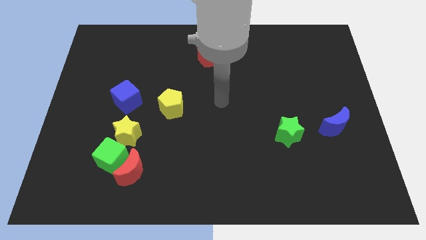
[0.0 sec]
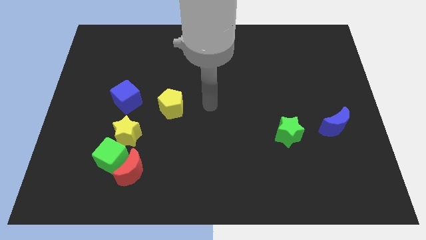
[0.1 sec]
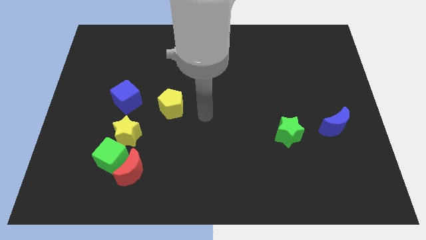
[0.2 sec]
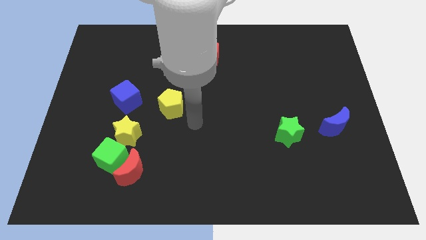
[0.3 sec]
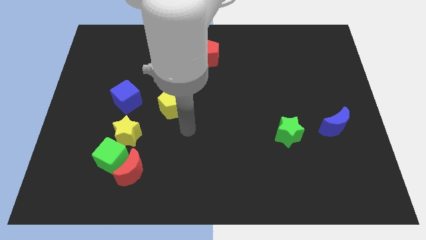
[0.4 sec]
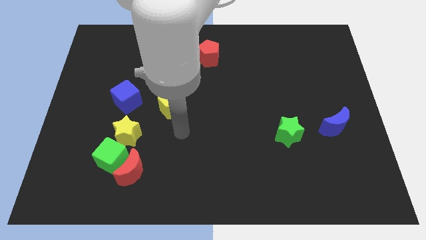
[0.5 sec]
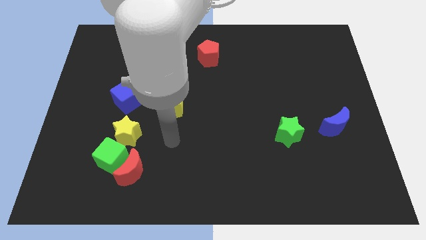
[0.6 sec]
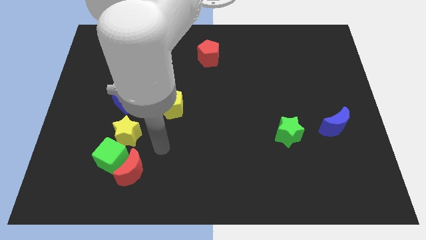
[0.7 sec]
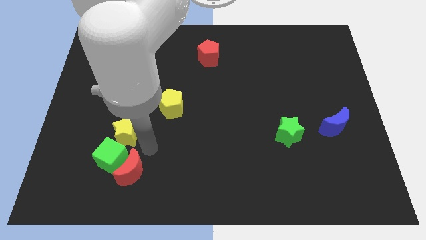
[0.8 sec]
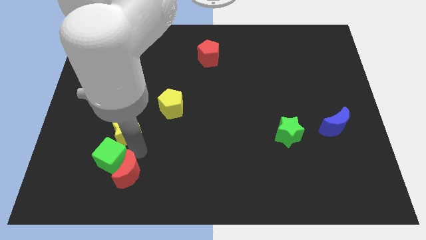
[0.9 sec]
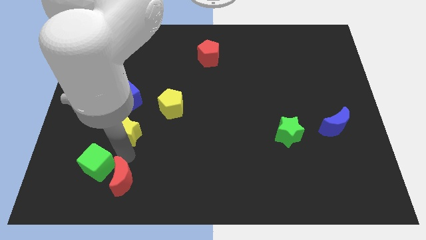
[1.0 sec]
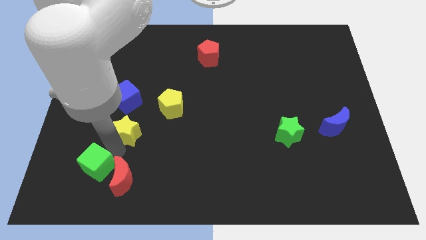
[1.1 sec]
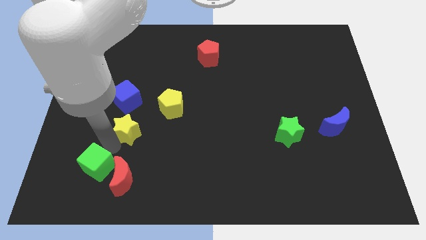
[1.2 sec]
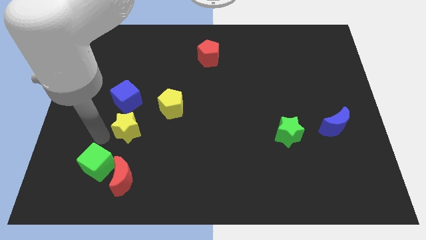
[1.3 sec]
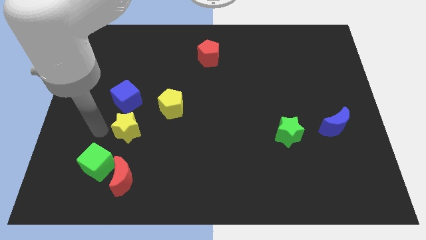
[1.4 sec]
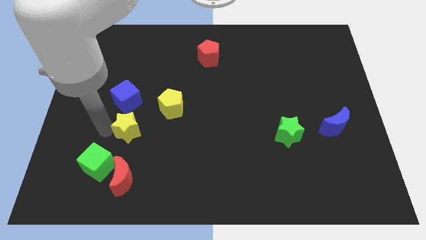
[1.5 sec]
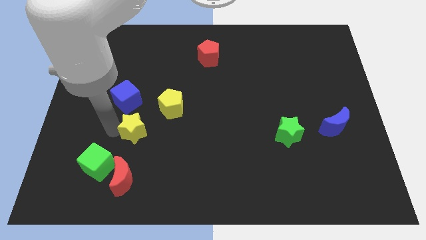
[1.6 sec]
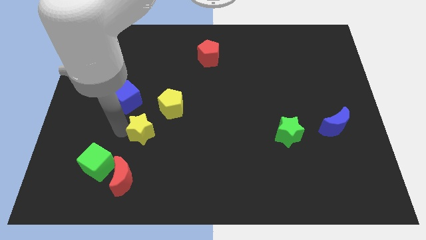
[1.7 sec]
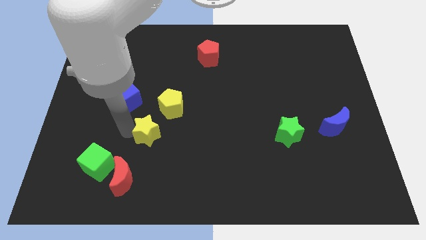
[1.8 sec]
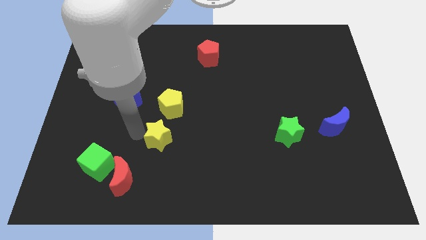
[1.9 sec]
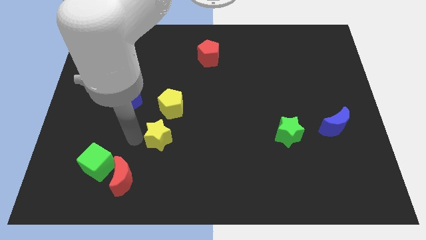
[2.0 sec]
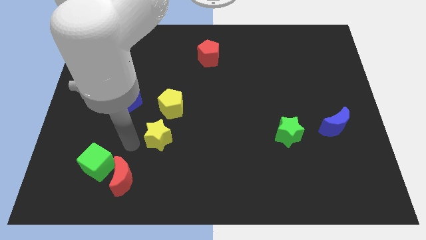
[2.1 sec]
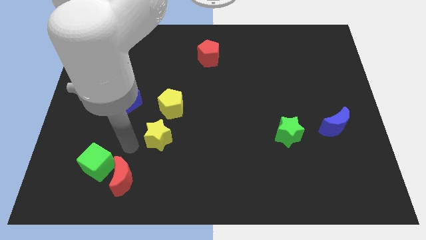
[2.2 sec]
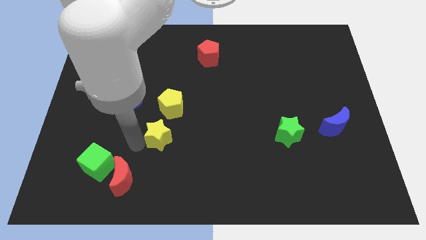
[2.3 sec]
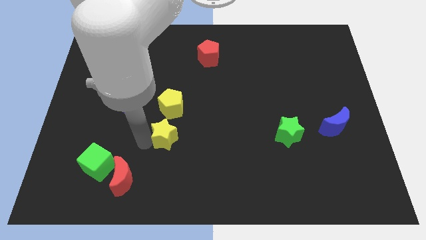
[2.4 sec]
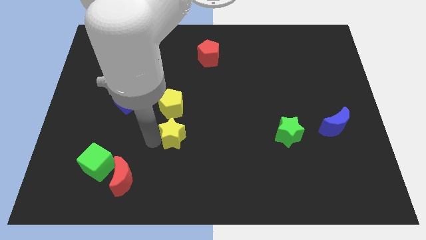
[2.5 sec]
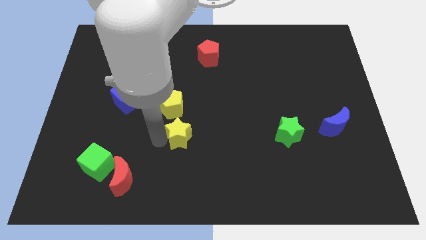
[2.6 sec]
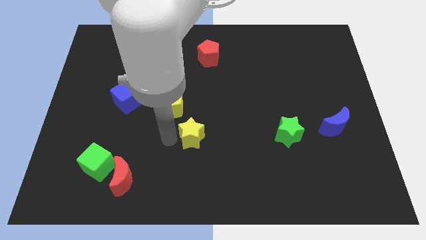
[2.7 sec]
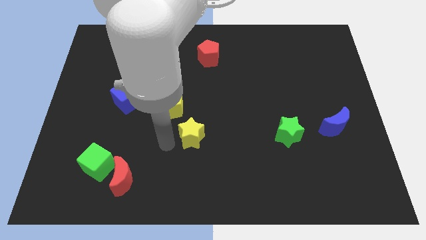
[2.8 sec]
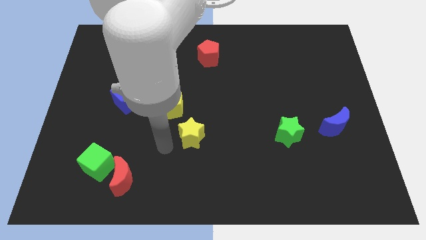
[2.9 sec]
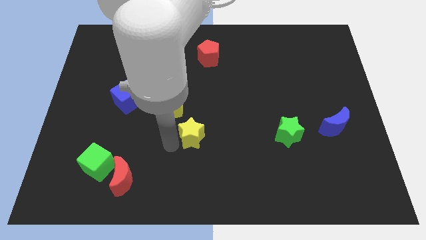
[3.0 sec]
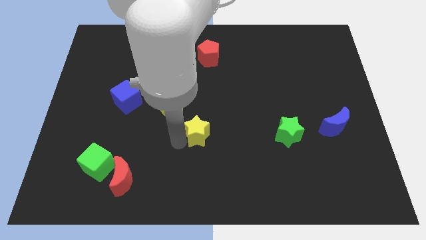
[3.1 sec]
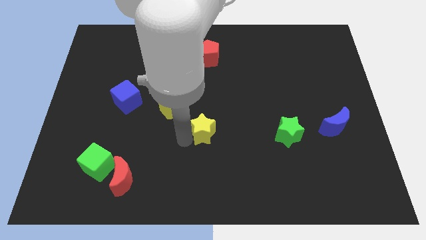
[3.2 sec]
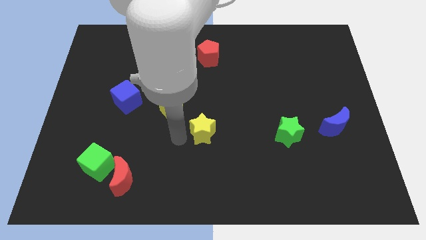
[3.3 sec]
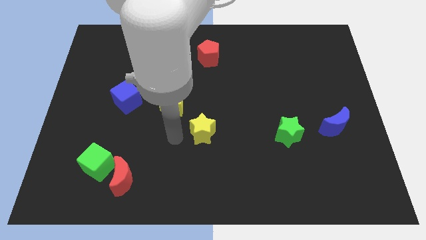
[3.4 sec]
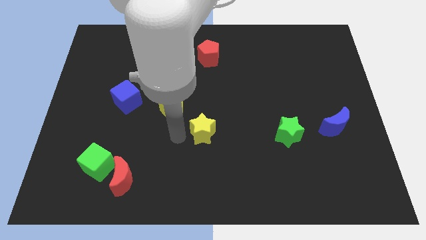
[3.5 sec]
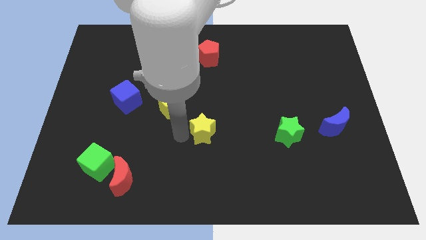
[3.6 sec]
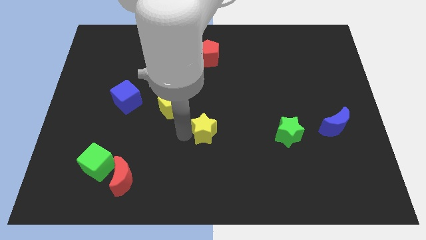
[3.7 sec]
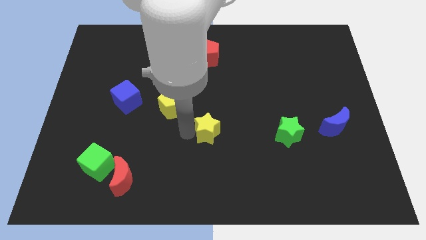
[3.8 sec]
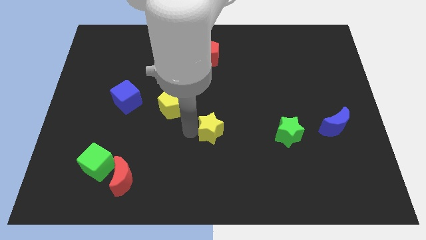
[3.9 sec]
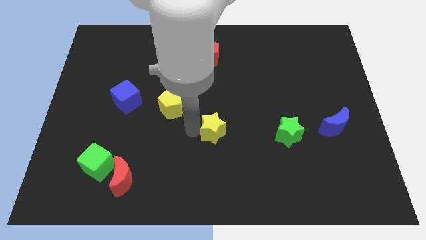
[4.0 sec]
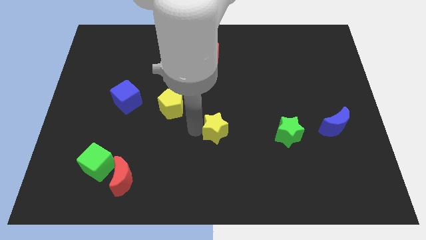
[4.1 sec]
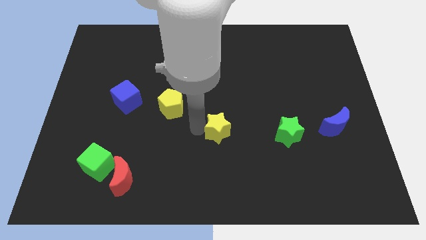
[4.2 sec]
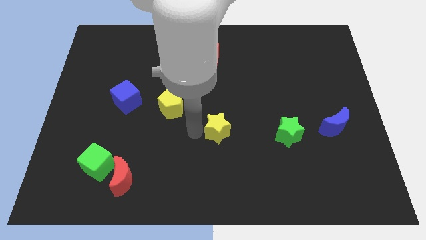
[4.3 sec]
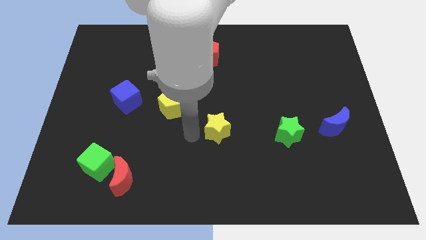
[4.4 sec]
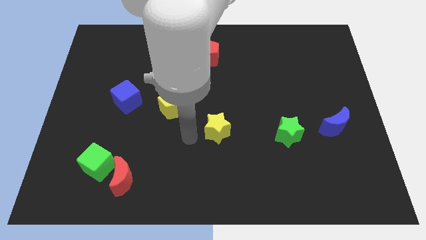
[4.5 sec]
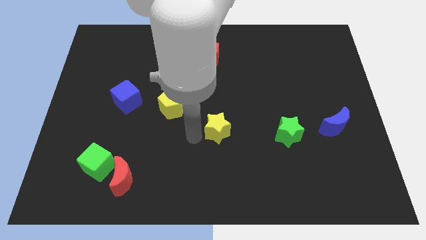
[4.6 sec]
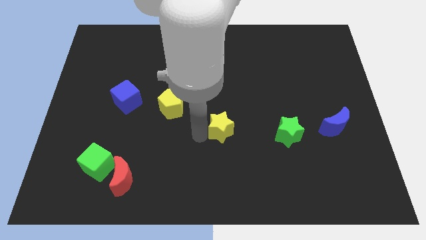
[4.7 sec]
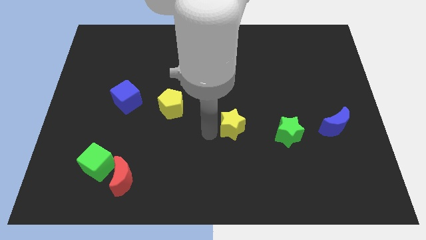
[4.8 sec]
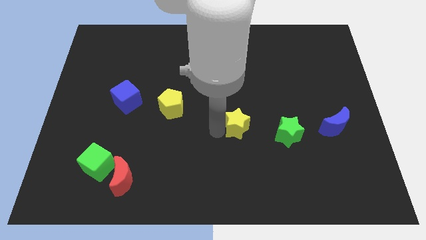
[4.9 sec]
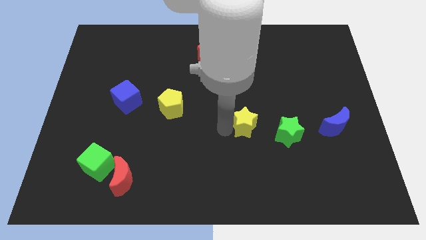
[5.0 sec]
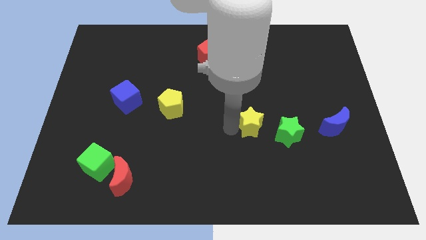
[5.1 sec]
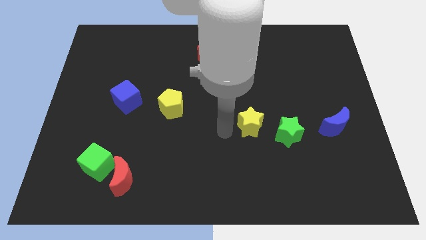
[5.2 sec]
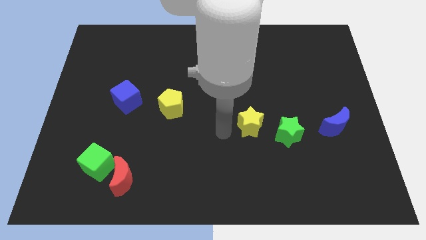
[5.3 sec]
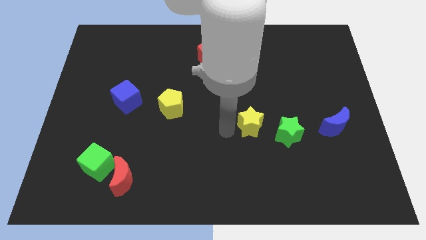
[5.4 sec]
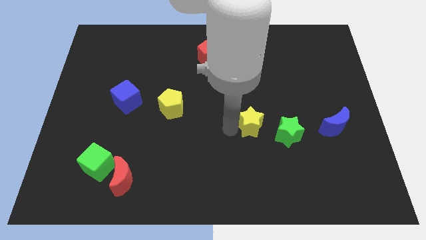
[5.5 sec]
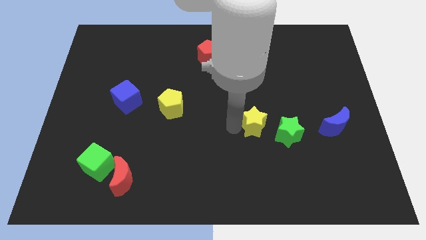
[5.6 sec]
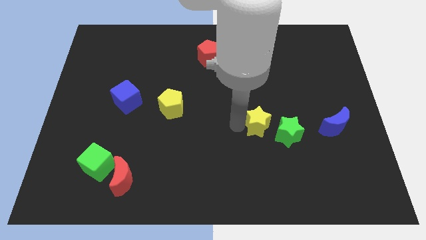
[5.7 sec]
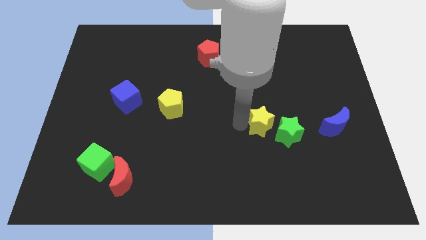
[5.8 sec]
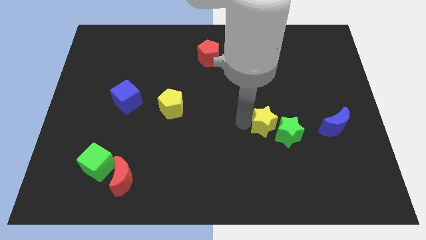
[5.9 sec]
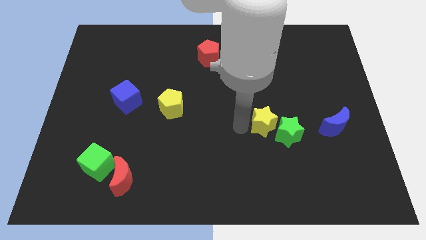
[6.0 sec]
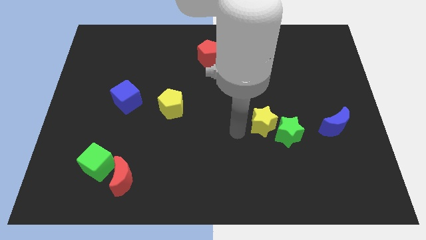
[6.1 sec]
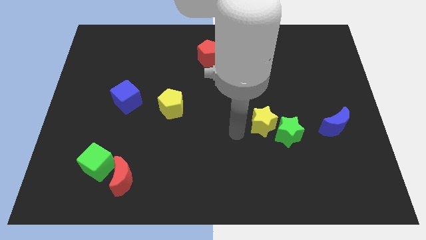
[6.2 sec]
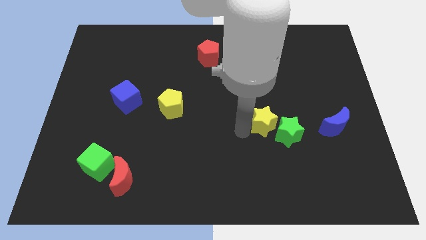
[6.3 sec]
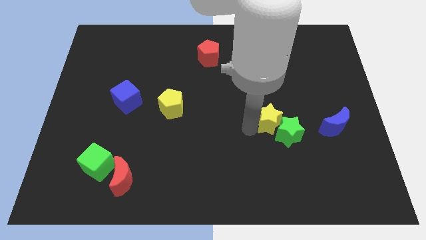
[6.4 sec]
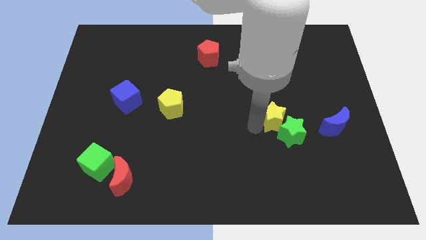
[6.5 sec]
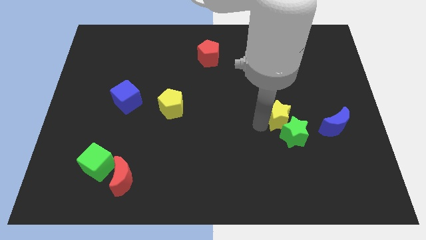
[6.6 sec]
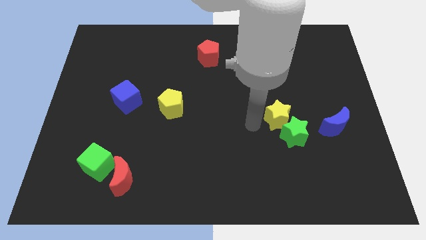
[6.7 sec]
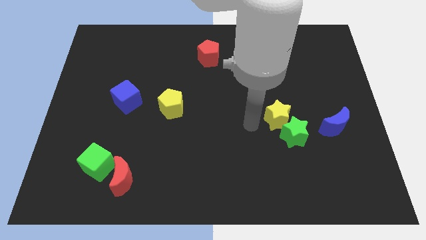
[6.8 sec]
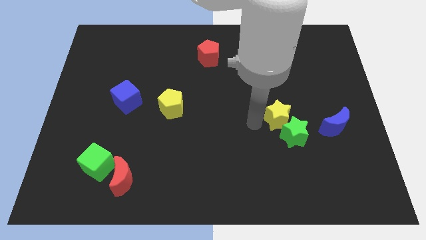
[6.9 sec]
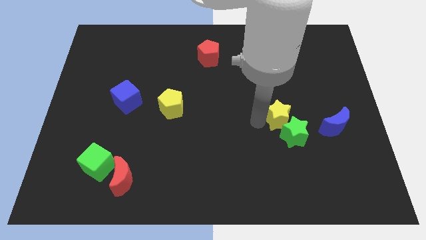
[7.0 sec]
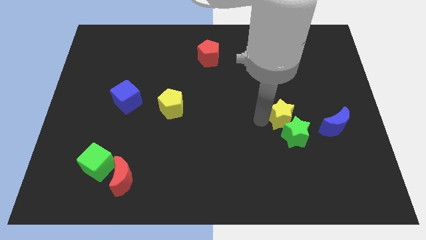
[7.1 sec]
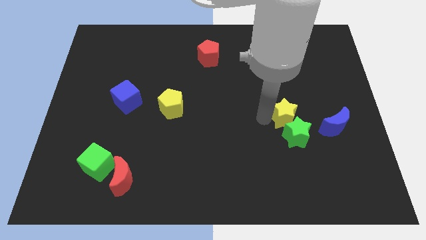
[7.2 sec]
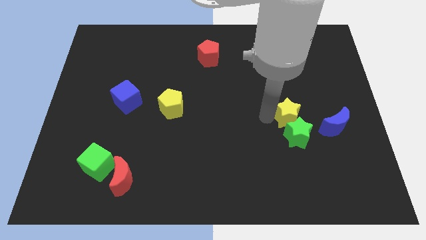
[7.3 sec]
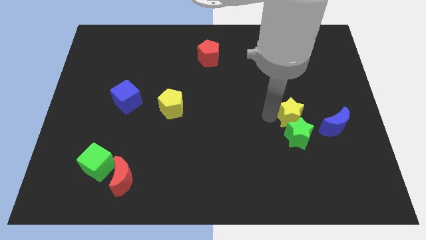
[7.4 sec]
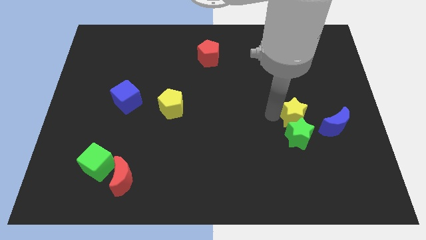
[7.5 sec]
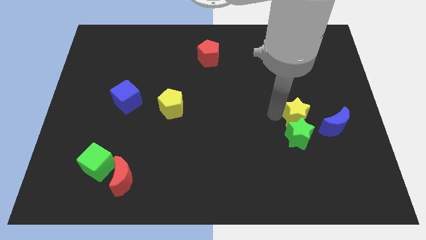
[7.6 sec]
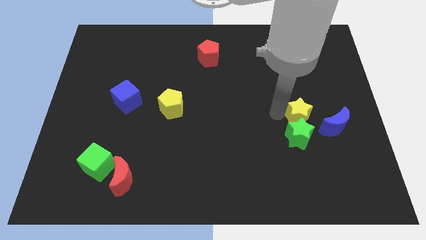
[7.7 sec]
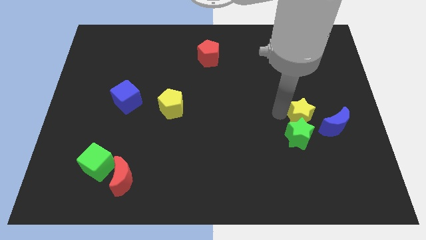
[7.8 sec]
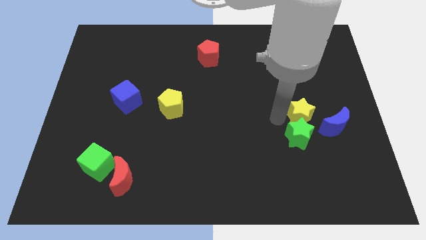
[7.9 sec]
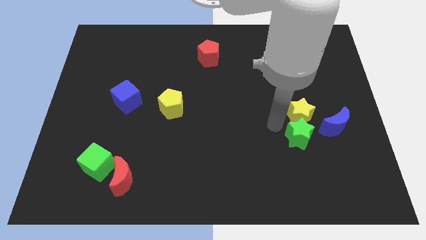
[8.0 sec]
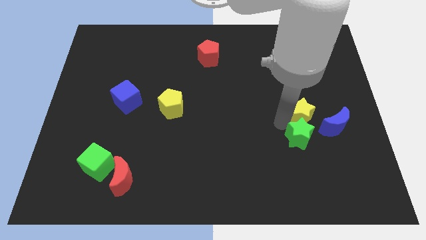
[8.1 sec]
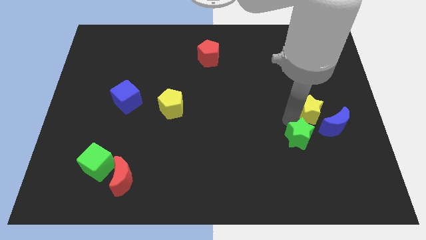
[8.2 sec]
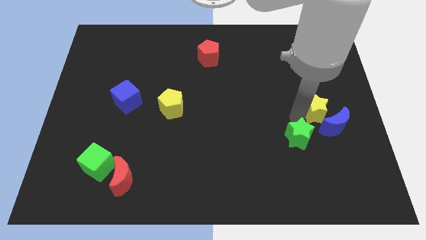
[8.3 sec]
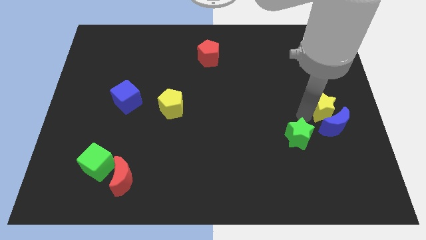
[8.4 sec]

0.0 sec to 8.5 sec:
move the yellow star to the right side of the board

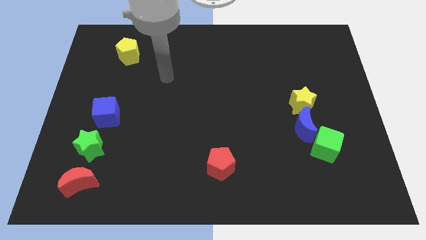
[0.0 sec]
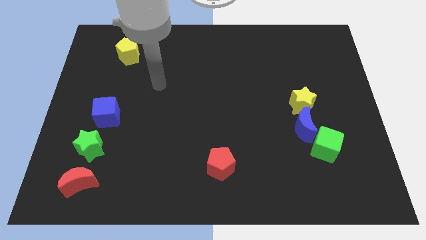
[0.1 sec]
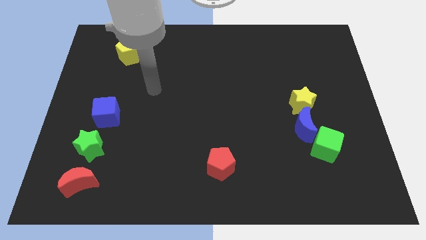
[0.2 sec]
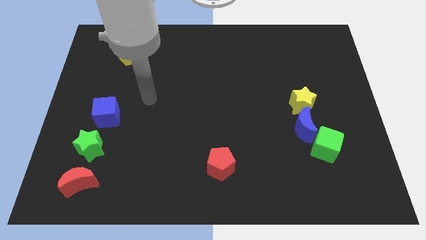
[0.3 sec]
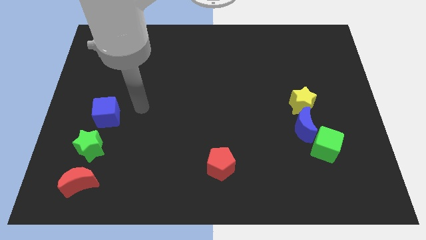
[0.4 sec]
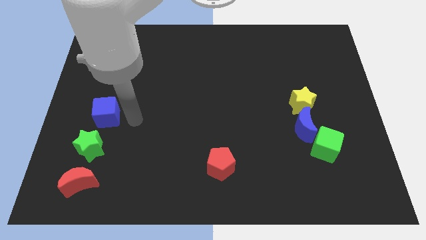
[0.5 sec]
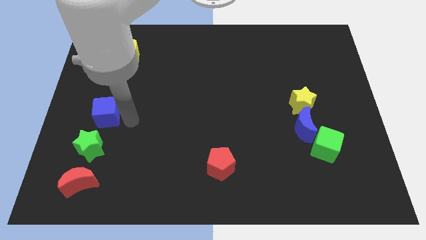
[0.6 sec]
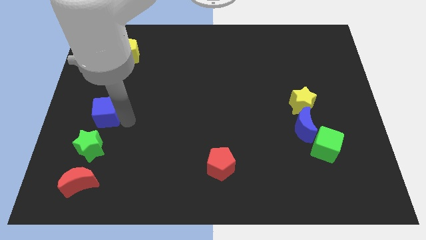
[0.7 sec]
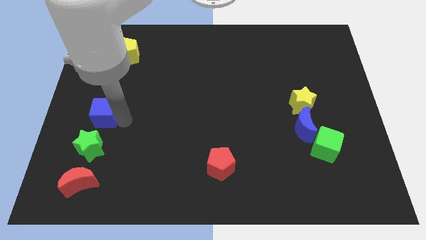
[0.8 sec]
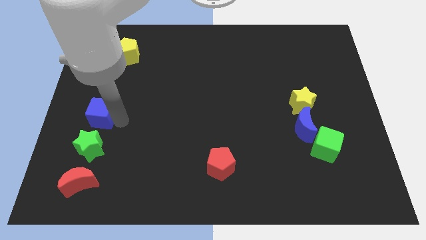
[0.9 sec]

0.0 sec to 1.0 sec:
move the blue cube to the left side
